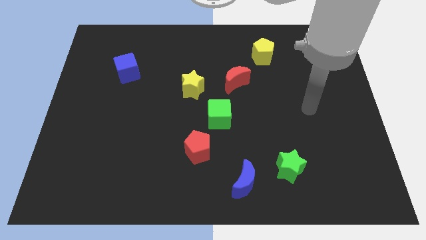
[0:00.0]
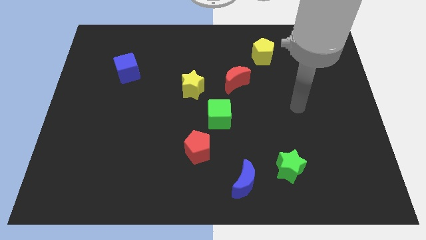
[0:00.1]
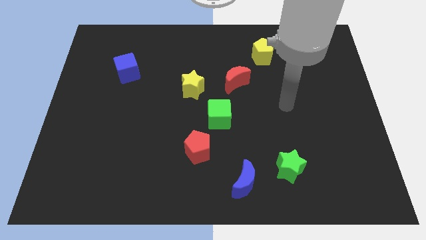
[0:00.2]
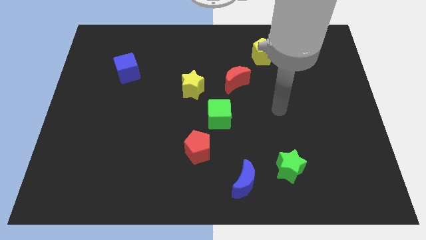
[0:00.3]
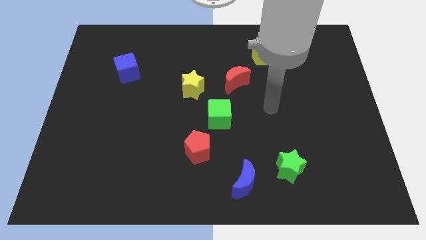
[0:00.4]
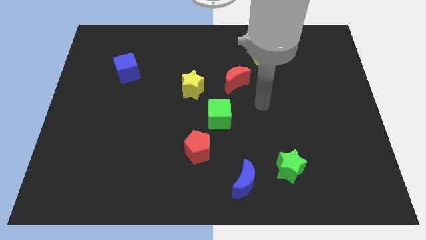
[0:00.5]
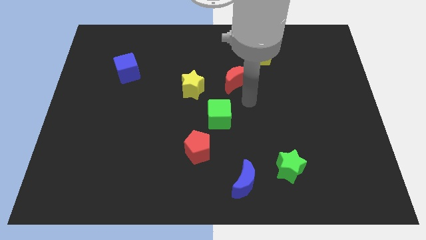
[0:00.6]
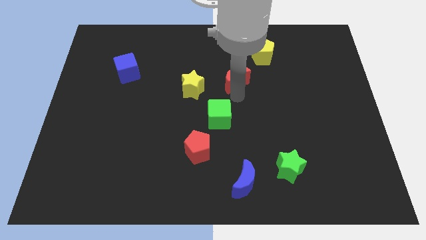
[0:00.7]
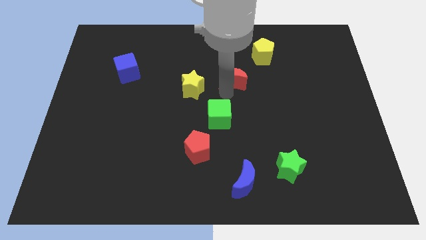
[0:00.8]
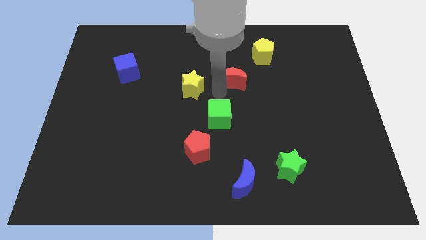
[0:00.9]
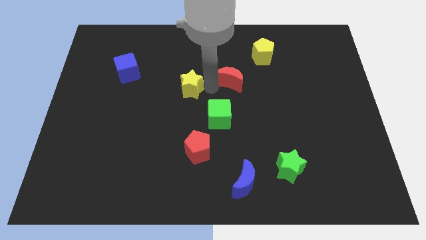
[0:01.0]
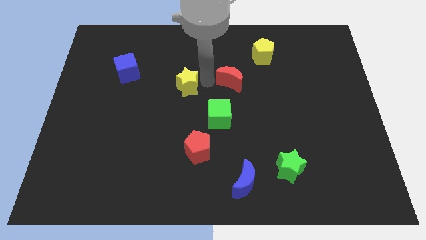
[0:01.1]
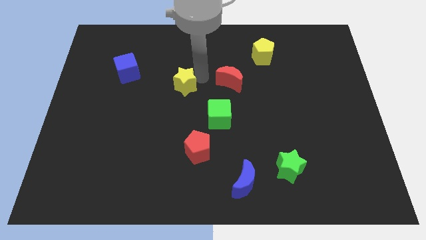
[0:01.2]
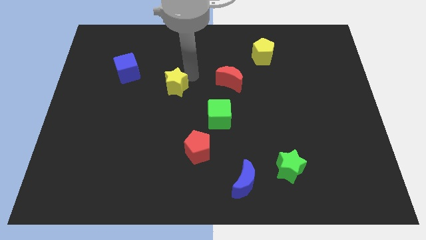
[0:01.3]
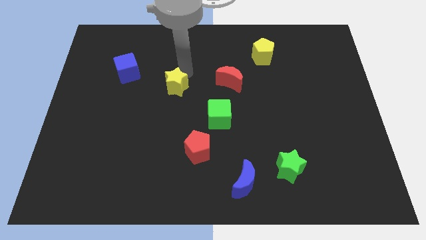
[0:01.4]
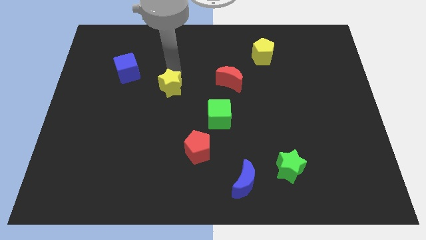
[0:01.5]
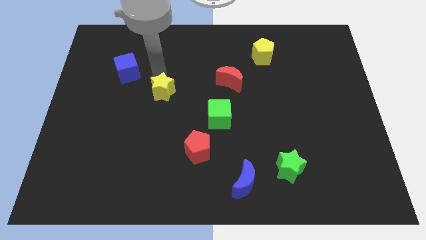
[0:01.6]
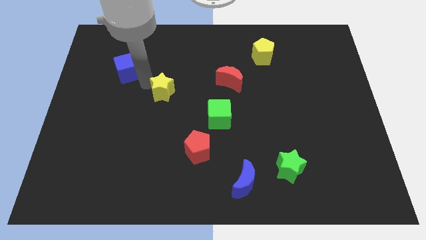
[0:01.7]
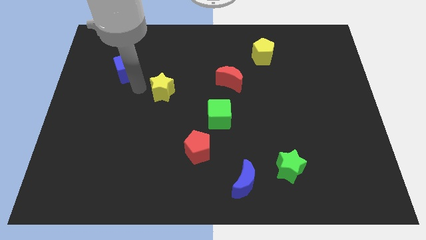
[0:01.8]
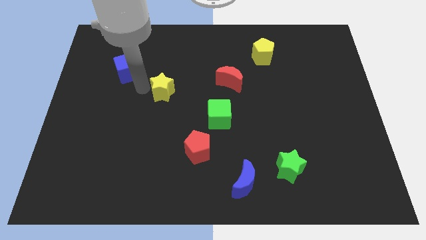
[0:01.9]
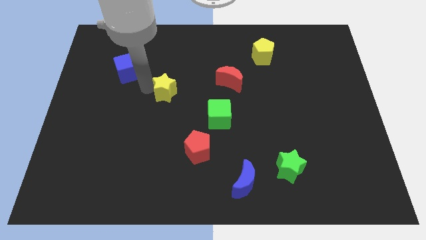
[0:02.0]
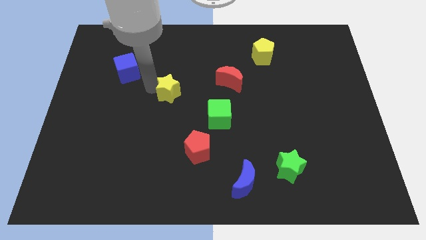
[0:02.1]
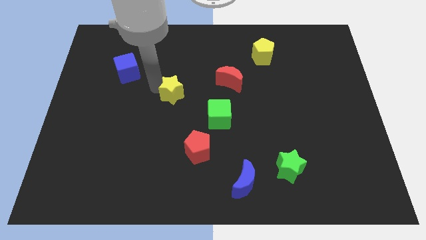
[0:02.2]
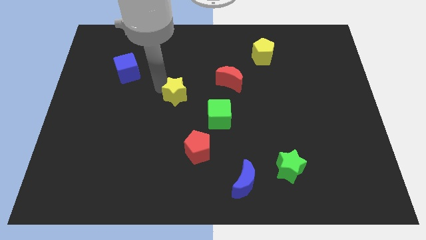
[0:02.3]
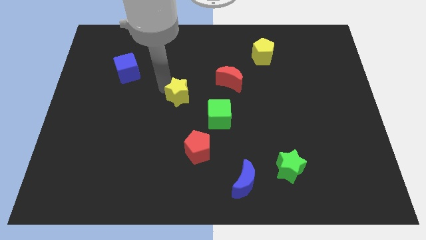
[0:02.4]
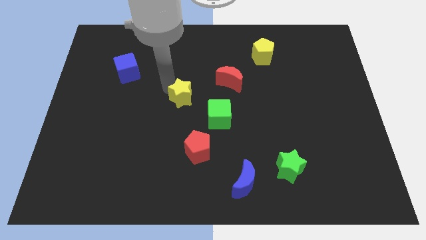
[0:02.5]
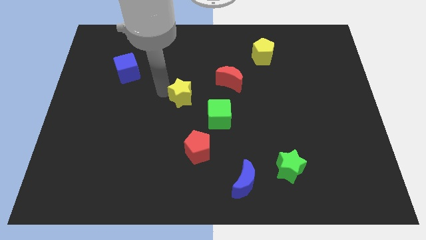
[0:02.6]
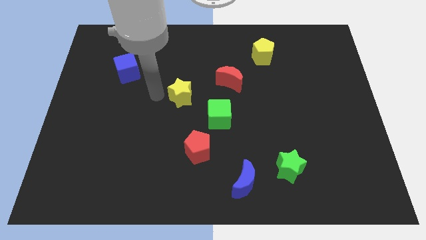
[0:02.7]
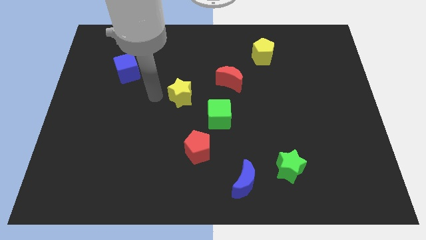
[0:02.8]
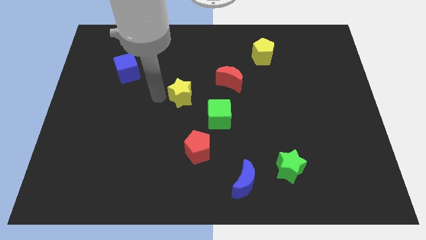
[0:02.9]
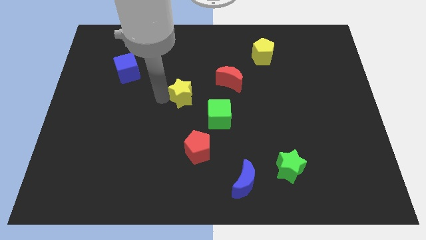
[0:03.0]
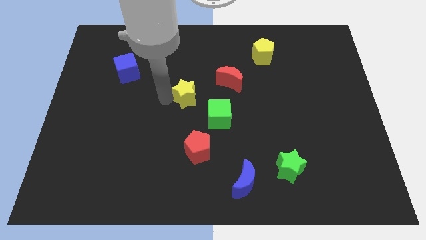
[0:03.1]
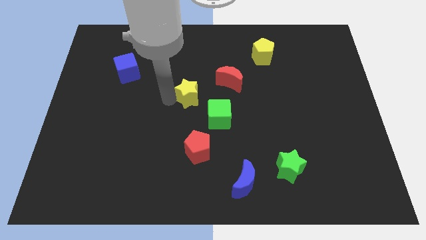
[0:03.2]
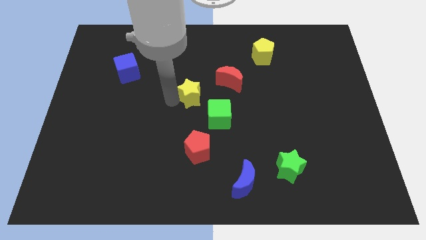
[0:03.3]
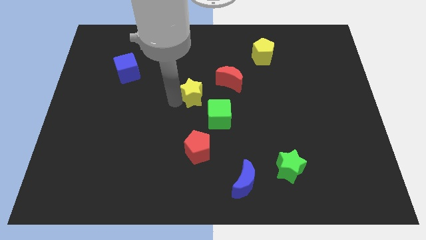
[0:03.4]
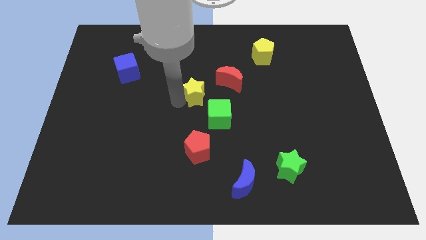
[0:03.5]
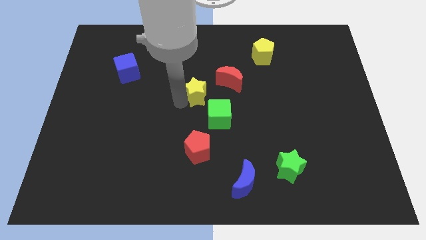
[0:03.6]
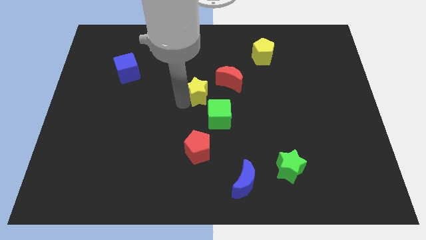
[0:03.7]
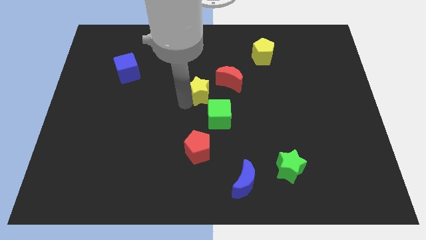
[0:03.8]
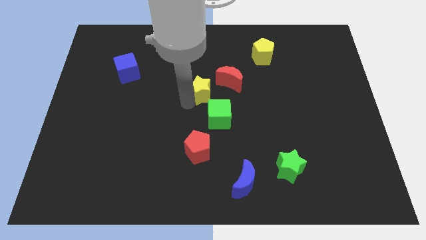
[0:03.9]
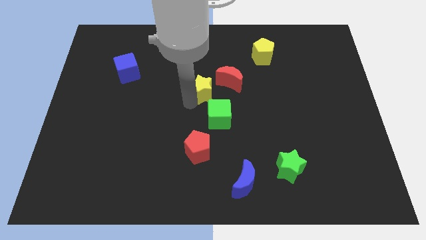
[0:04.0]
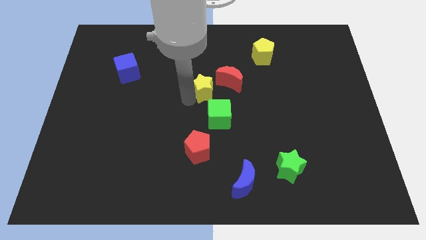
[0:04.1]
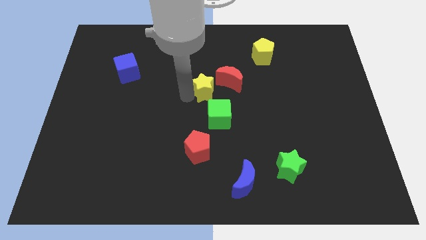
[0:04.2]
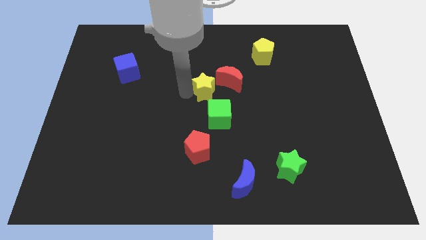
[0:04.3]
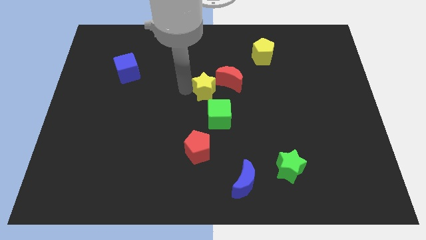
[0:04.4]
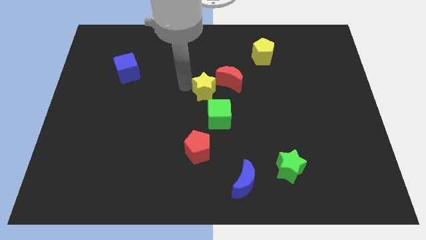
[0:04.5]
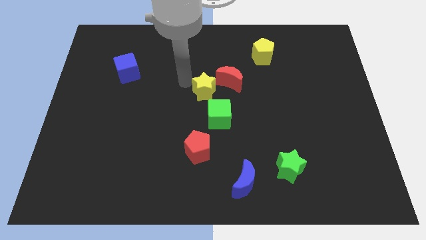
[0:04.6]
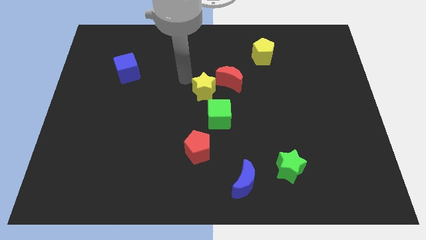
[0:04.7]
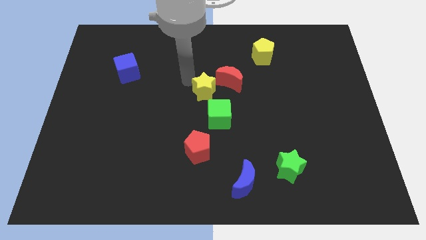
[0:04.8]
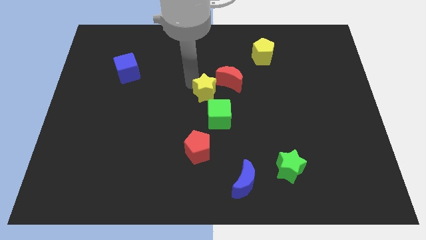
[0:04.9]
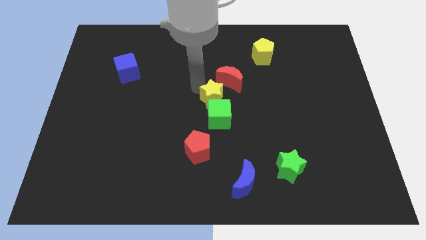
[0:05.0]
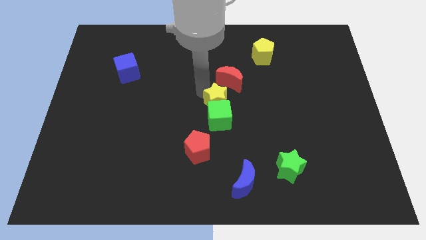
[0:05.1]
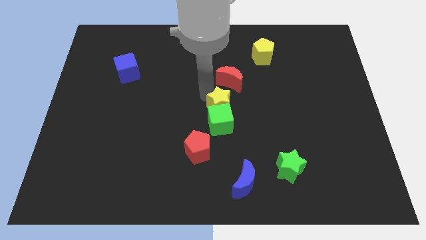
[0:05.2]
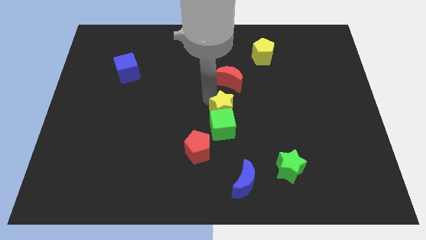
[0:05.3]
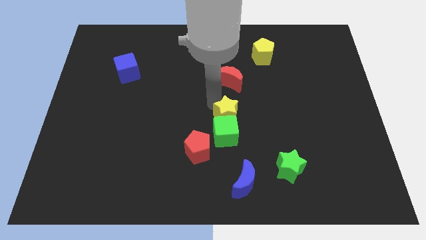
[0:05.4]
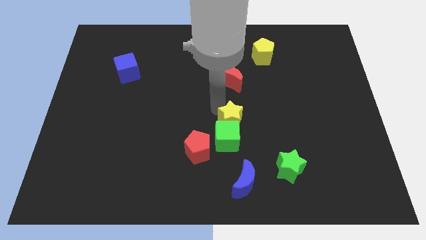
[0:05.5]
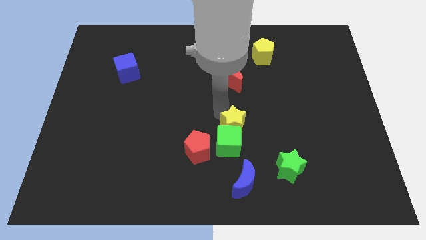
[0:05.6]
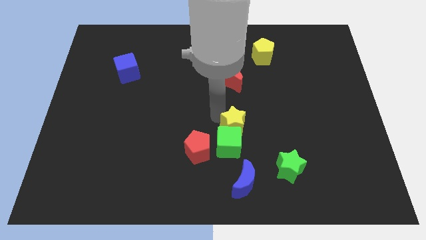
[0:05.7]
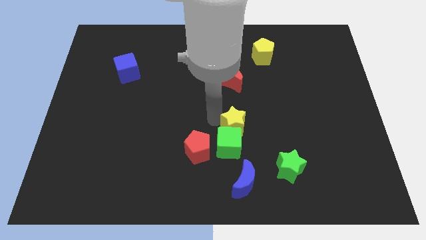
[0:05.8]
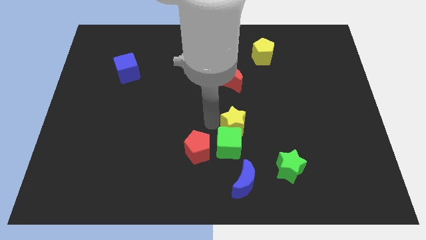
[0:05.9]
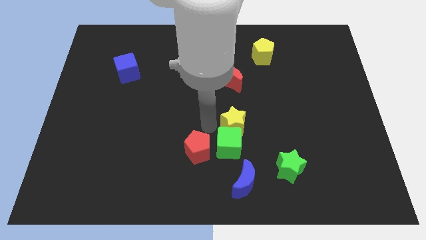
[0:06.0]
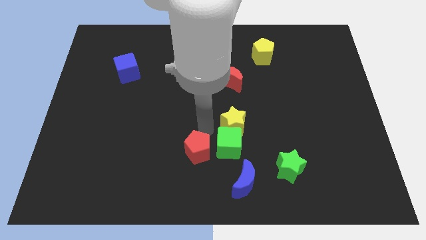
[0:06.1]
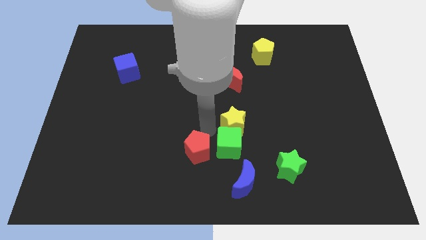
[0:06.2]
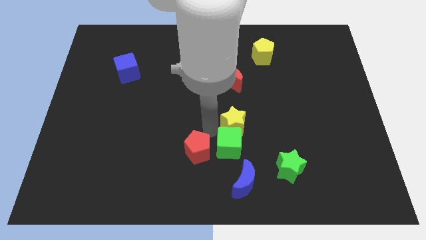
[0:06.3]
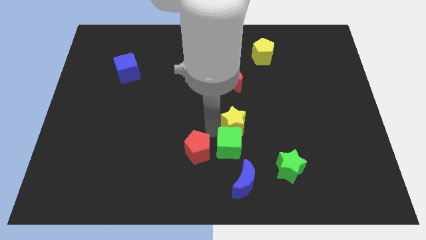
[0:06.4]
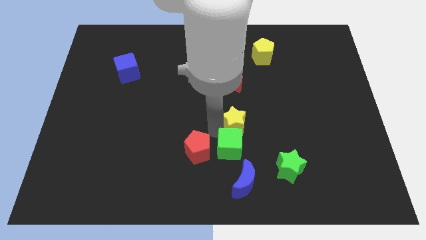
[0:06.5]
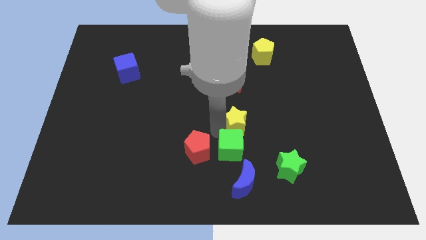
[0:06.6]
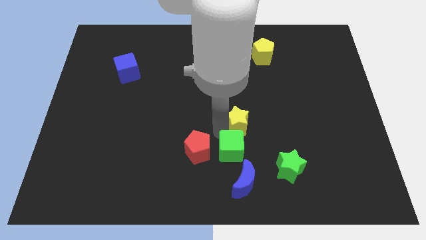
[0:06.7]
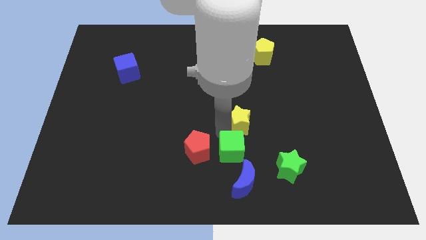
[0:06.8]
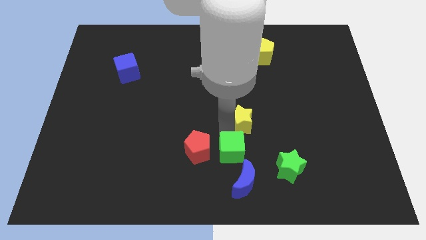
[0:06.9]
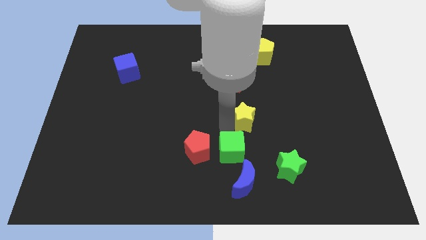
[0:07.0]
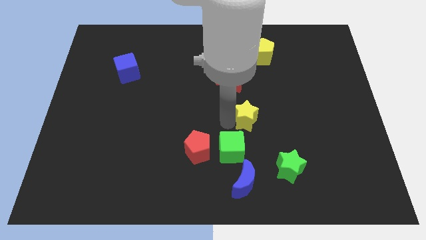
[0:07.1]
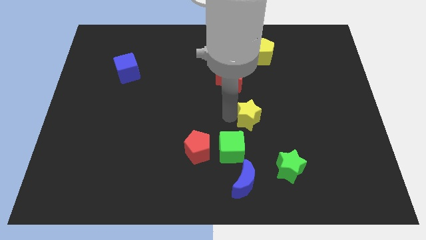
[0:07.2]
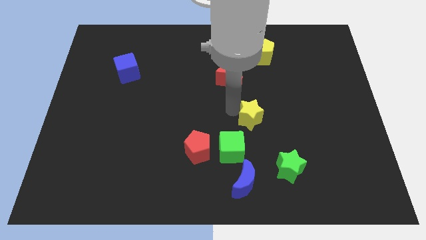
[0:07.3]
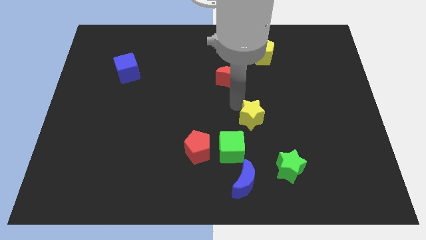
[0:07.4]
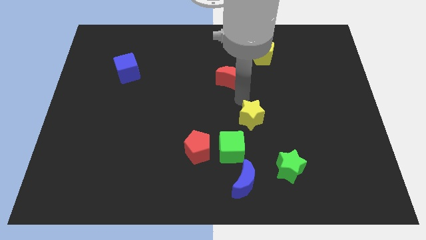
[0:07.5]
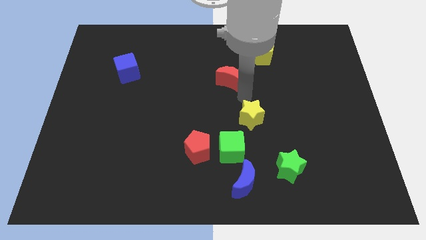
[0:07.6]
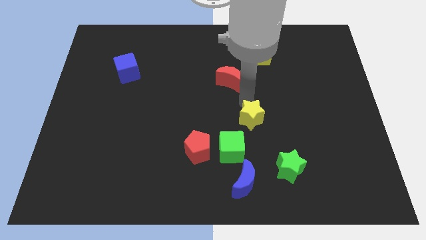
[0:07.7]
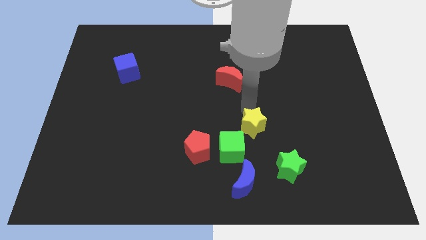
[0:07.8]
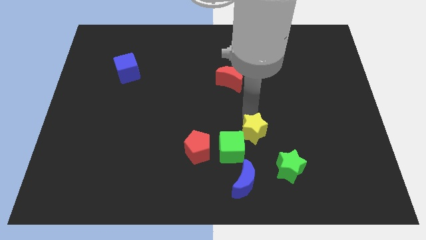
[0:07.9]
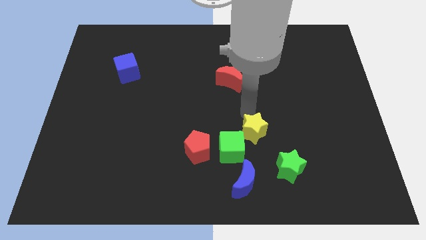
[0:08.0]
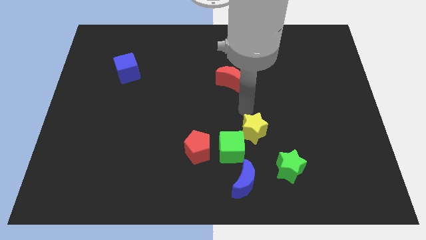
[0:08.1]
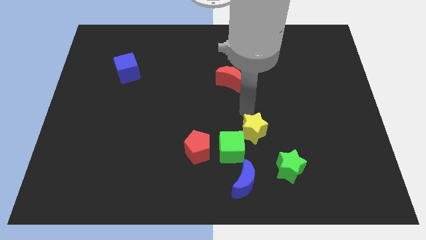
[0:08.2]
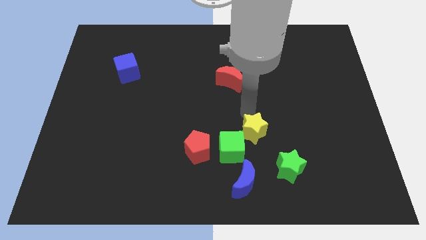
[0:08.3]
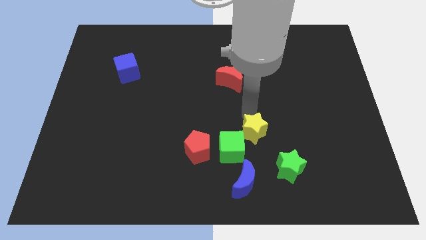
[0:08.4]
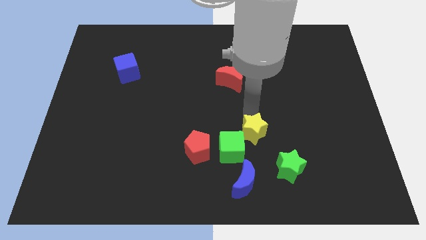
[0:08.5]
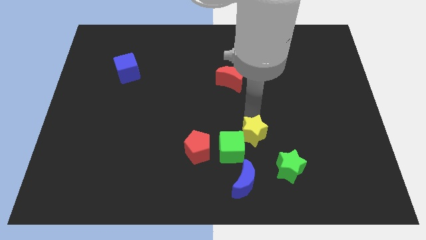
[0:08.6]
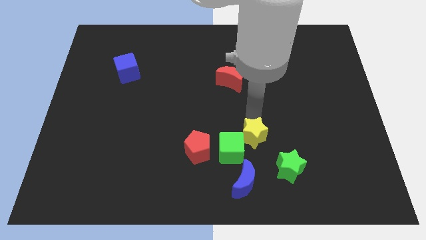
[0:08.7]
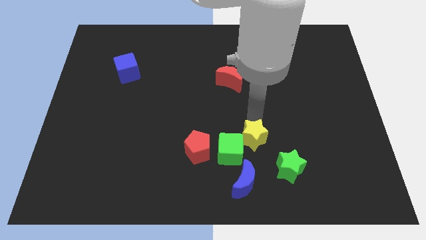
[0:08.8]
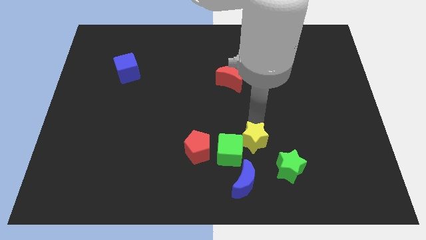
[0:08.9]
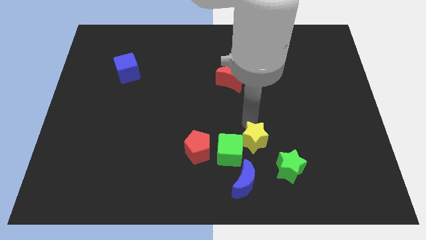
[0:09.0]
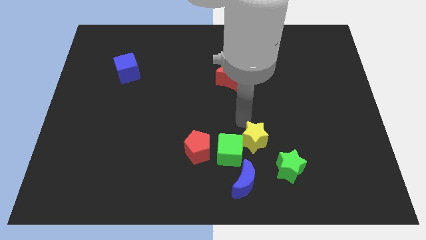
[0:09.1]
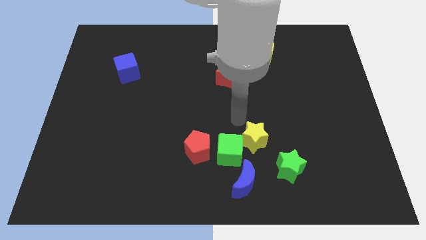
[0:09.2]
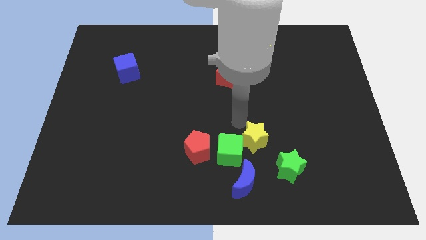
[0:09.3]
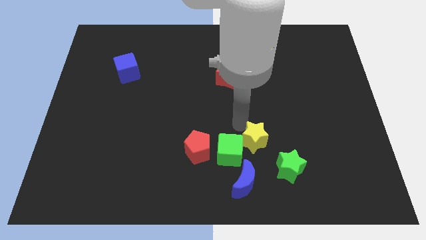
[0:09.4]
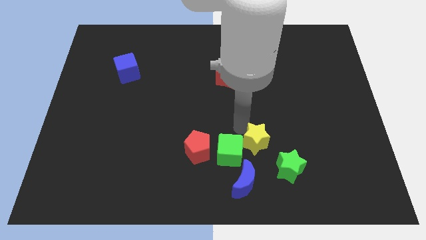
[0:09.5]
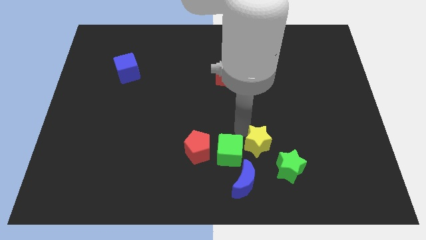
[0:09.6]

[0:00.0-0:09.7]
push the yellow star to the top right side of the blue moon
